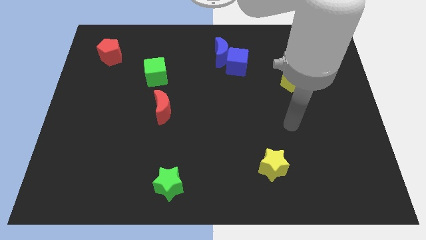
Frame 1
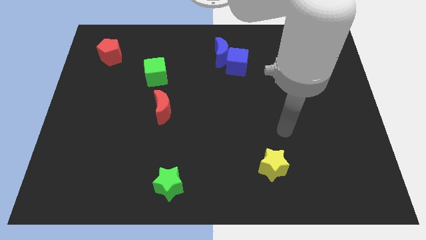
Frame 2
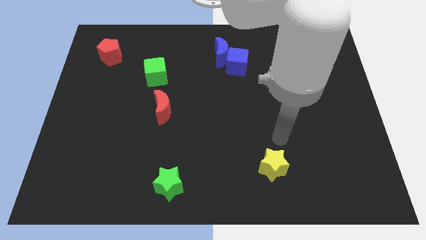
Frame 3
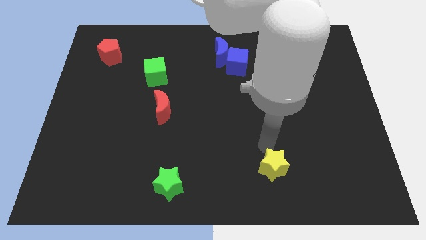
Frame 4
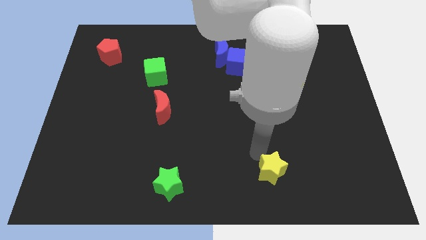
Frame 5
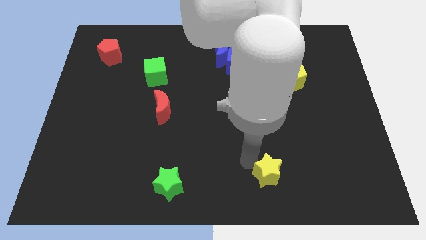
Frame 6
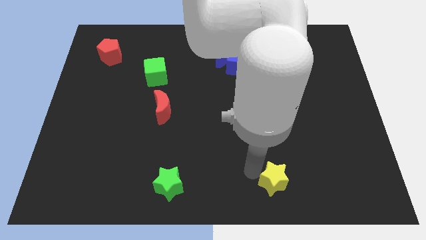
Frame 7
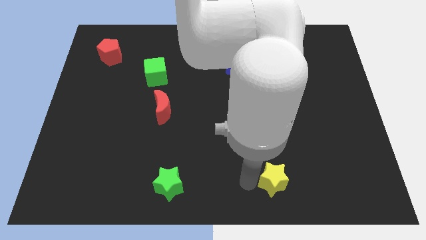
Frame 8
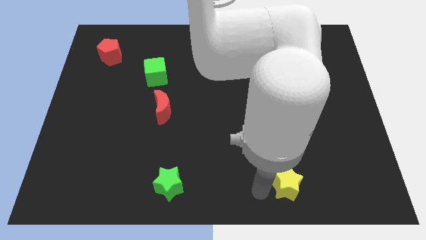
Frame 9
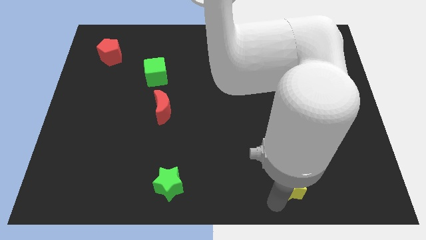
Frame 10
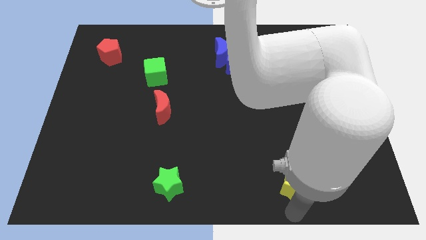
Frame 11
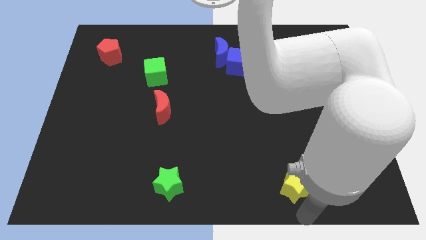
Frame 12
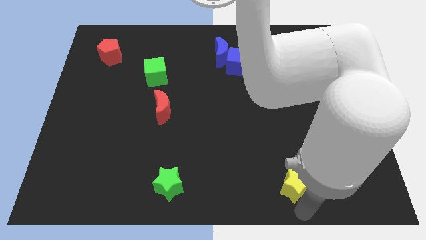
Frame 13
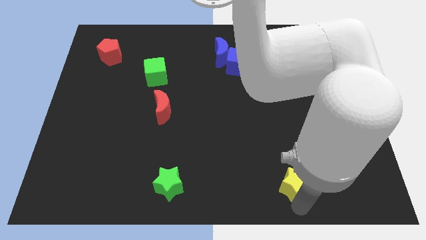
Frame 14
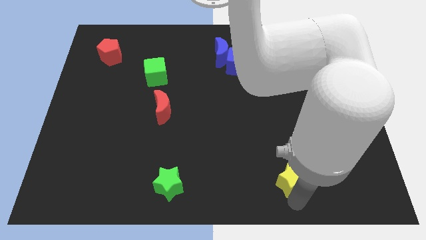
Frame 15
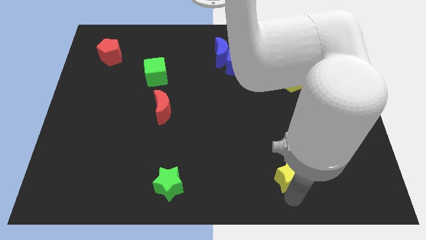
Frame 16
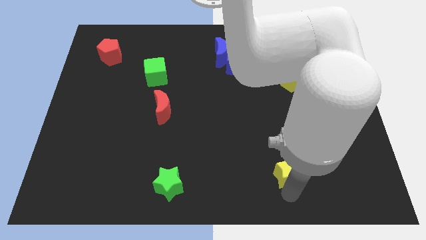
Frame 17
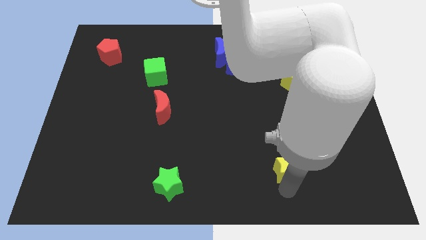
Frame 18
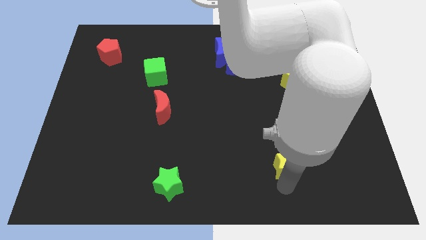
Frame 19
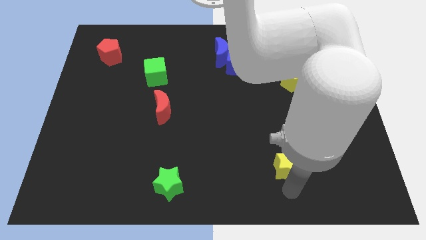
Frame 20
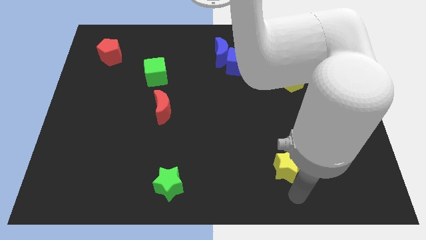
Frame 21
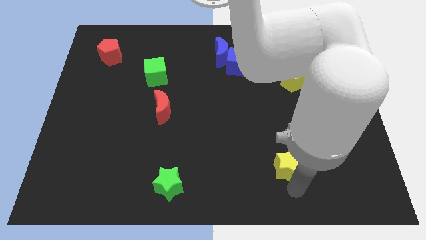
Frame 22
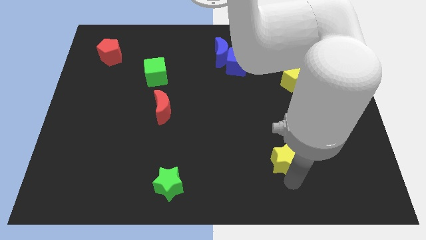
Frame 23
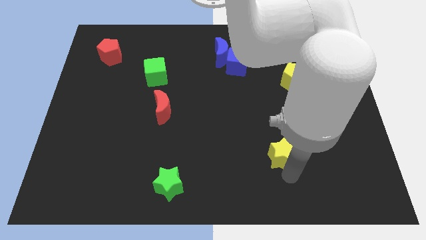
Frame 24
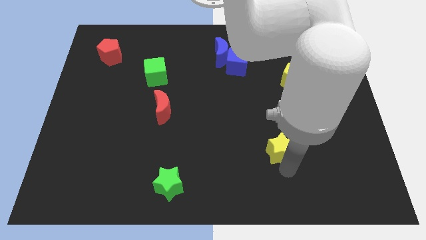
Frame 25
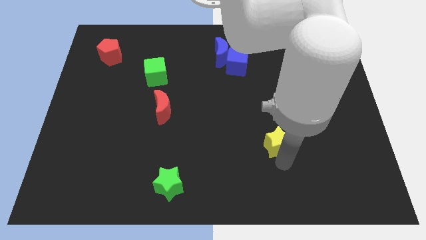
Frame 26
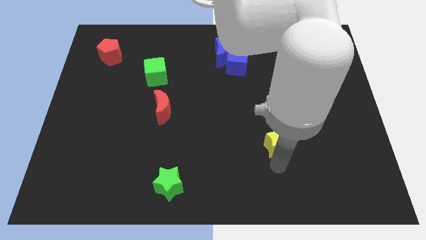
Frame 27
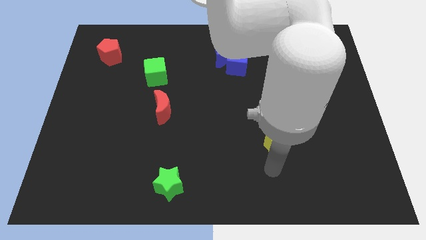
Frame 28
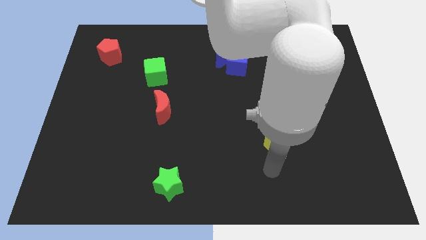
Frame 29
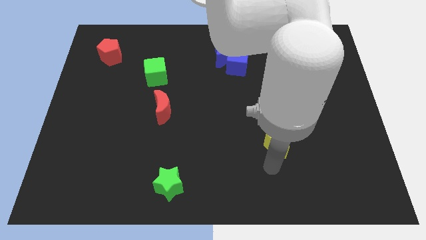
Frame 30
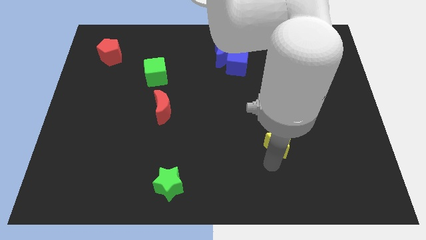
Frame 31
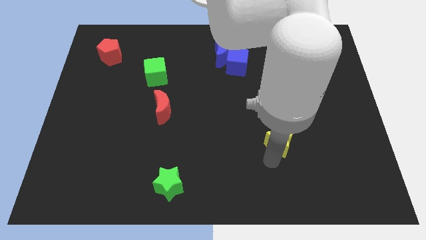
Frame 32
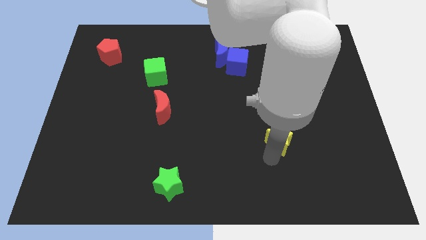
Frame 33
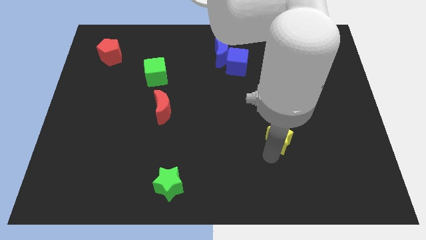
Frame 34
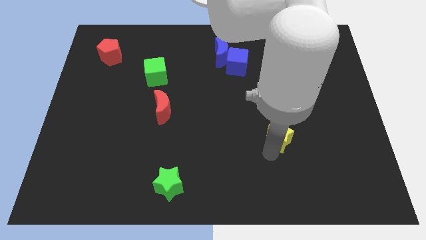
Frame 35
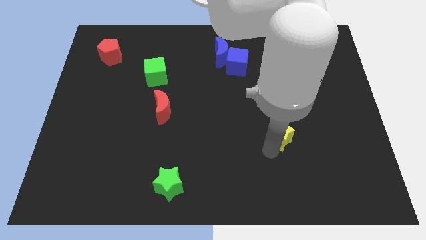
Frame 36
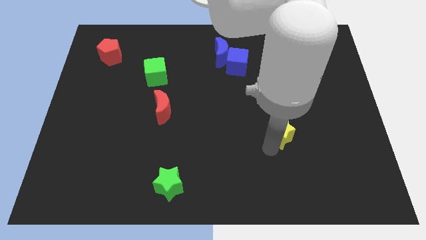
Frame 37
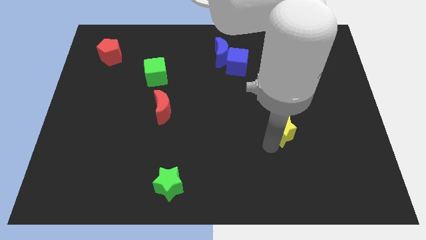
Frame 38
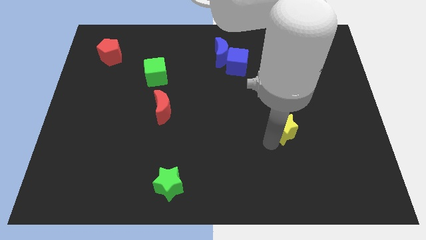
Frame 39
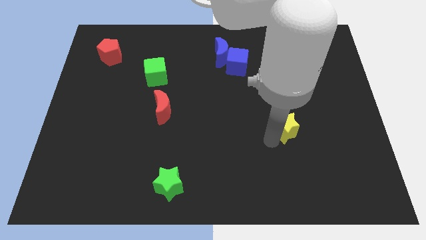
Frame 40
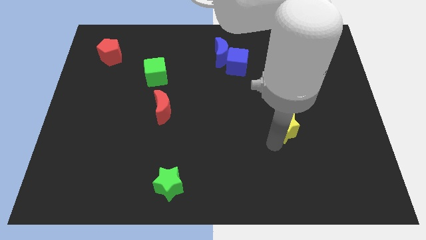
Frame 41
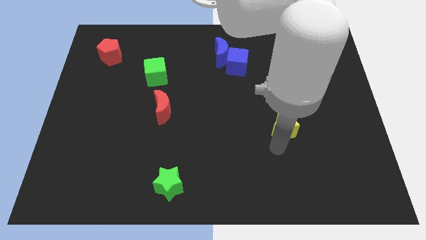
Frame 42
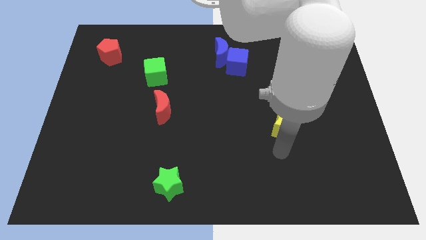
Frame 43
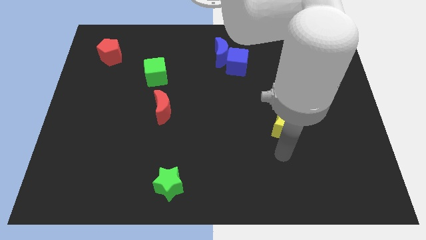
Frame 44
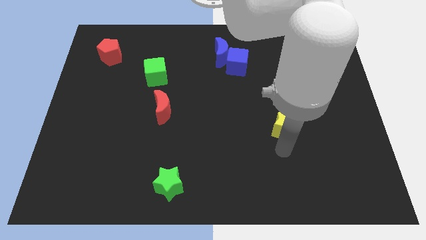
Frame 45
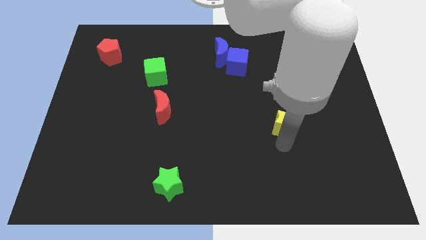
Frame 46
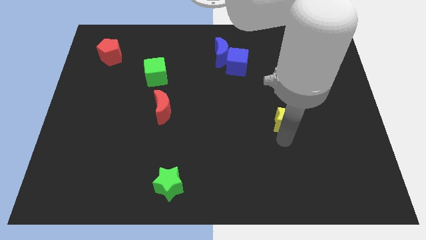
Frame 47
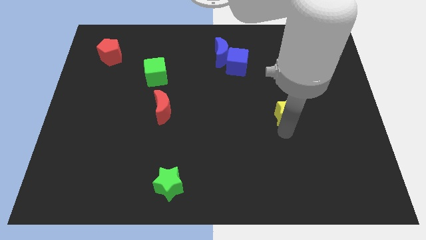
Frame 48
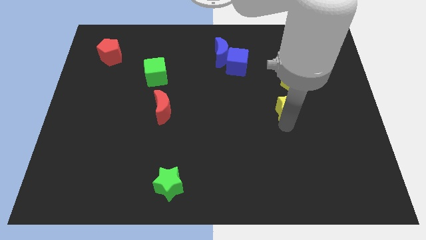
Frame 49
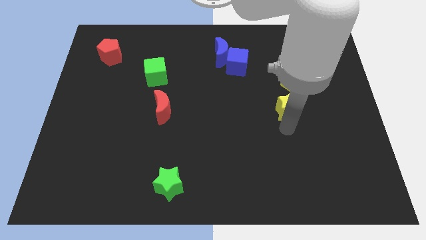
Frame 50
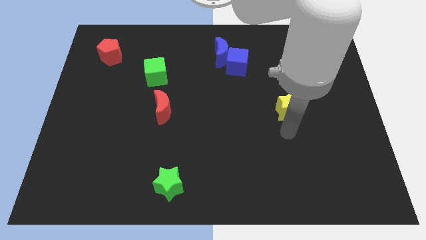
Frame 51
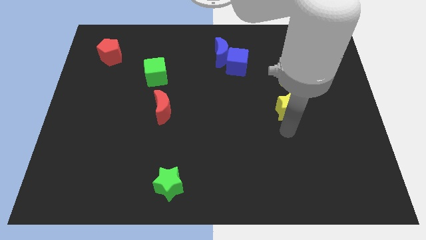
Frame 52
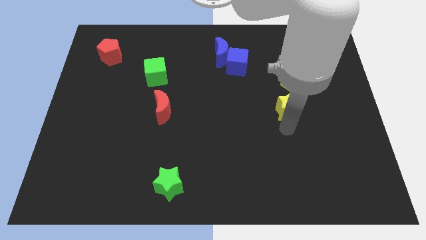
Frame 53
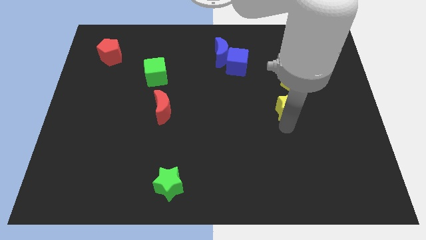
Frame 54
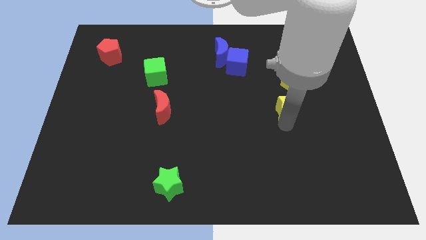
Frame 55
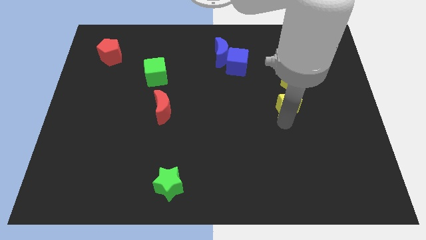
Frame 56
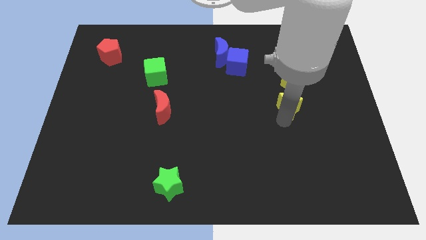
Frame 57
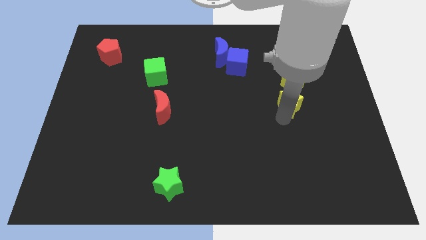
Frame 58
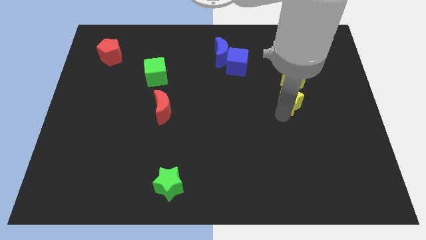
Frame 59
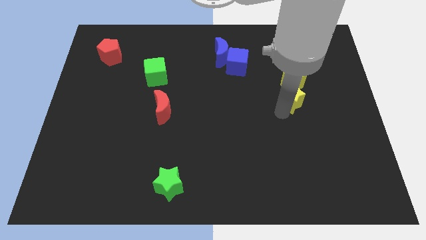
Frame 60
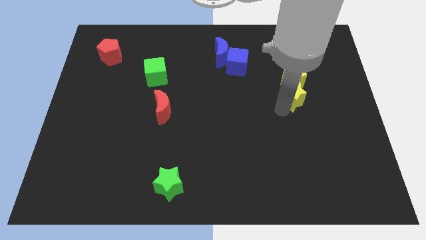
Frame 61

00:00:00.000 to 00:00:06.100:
move the yellow star close to the yellow pentagon

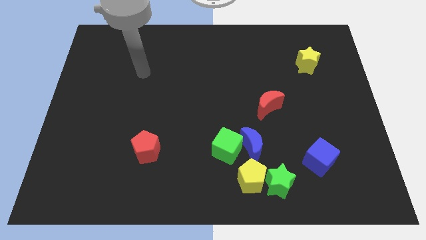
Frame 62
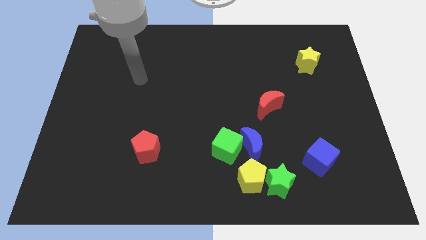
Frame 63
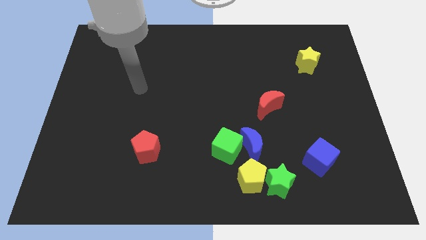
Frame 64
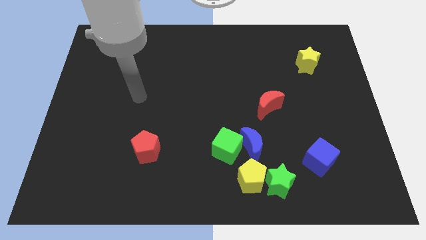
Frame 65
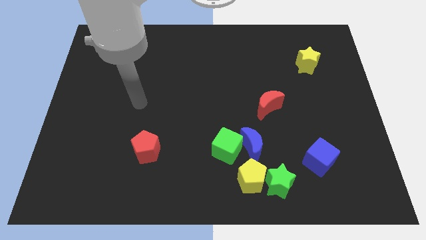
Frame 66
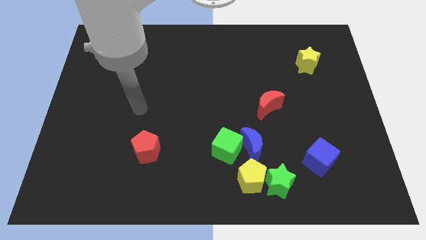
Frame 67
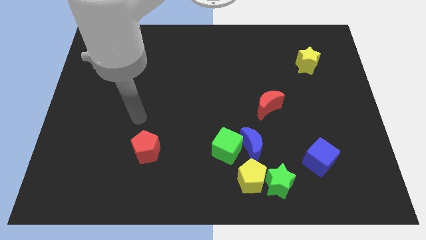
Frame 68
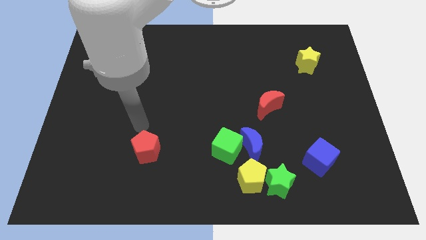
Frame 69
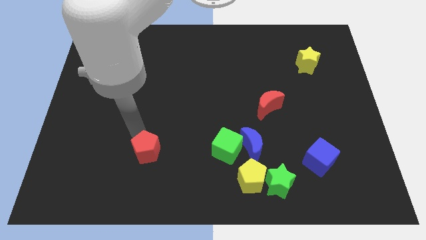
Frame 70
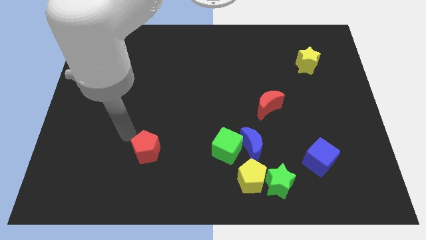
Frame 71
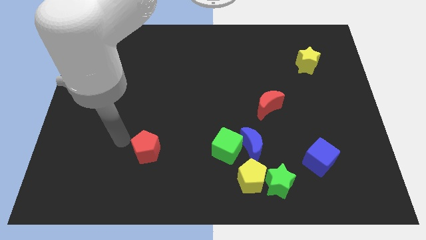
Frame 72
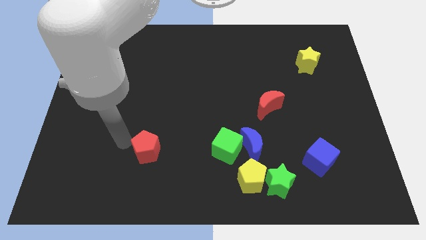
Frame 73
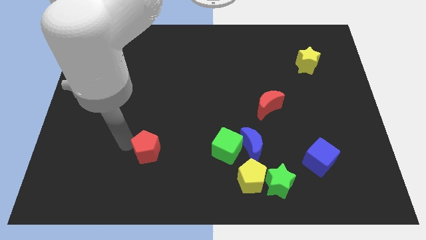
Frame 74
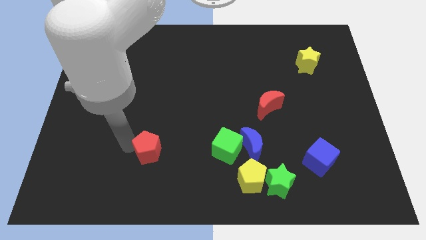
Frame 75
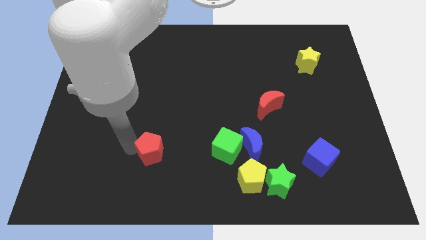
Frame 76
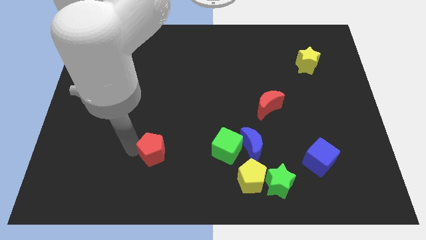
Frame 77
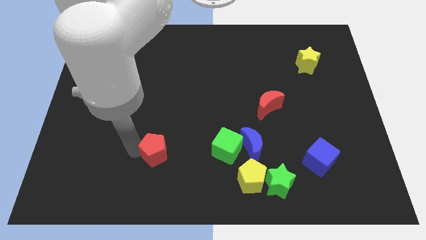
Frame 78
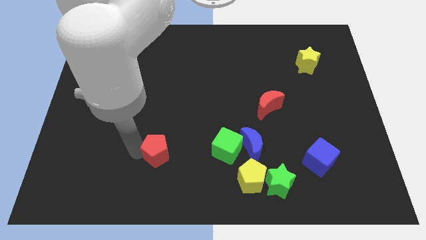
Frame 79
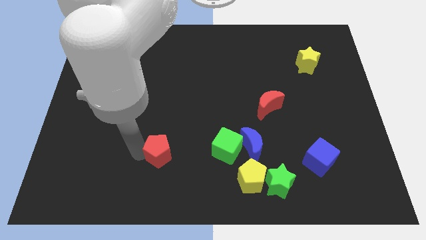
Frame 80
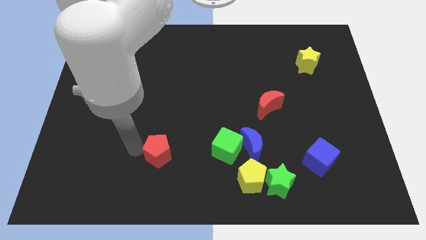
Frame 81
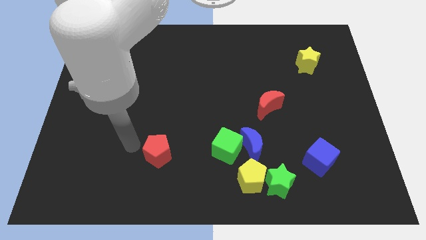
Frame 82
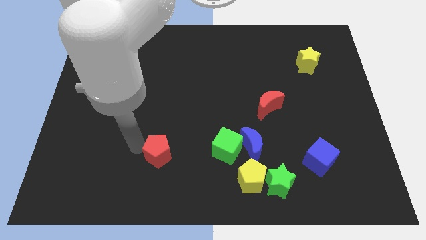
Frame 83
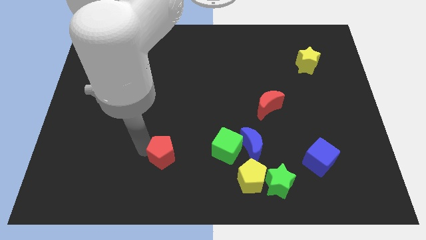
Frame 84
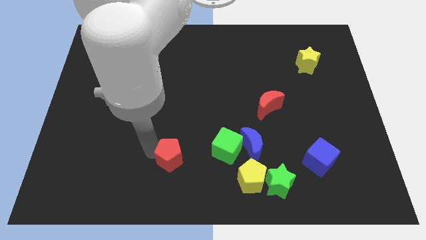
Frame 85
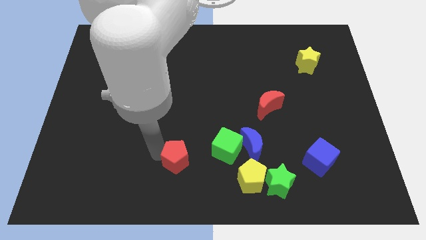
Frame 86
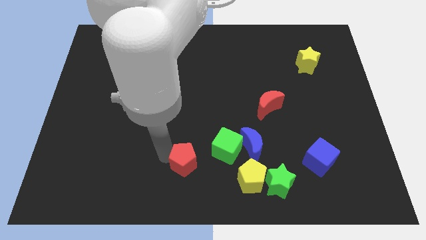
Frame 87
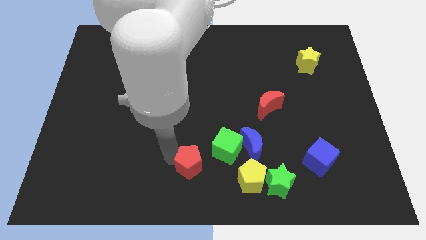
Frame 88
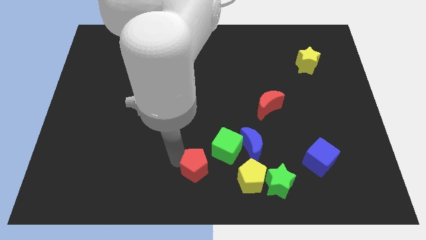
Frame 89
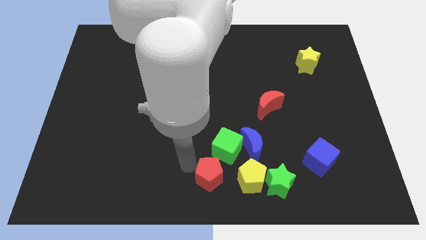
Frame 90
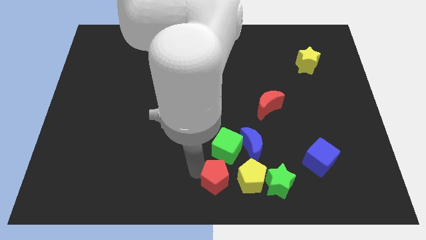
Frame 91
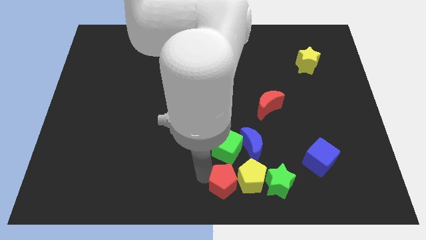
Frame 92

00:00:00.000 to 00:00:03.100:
put the red pentagon to the yellow pentagon
